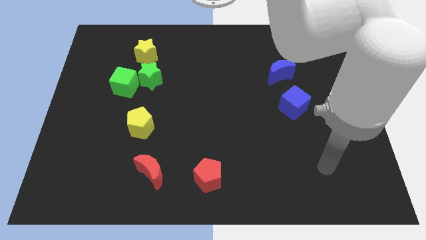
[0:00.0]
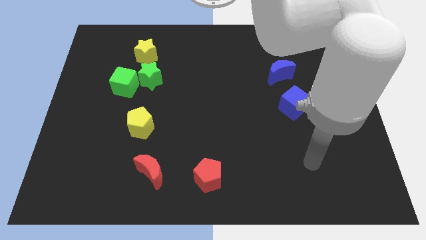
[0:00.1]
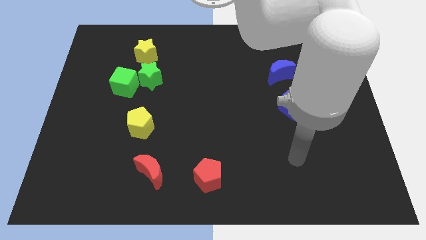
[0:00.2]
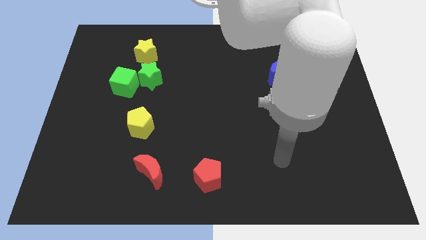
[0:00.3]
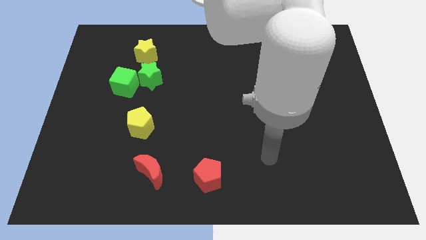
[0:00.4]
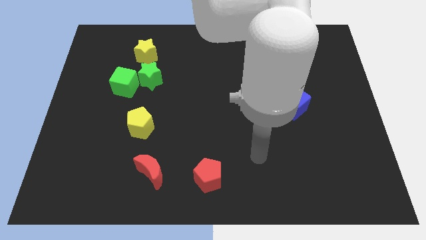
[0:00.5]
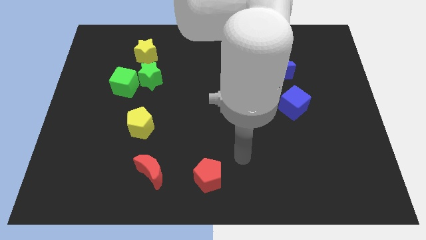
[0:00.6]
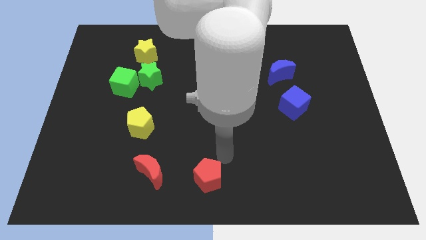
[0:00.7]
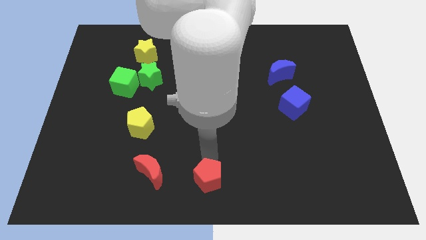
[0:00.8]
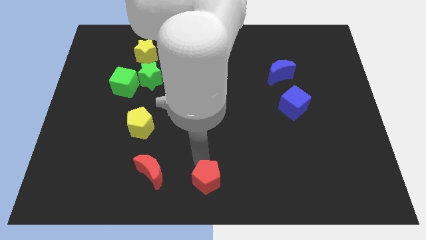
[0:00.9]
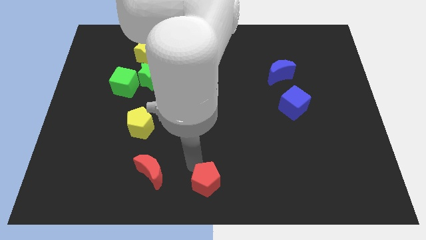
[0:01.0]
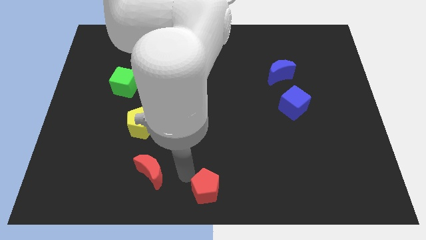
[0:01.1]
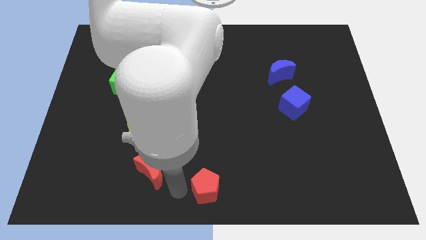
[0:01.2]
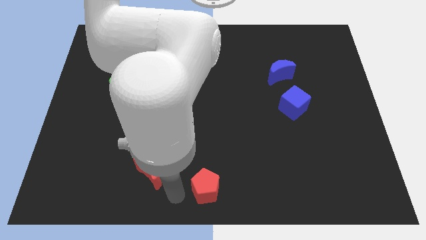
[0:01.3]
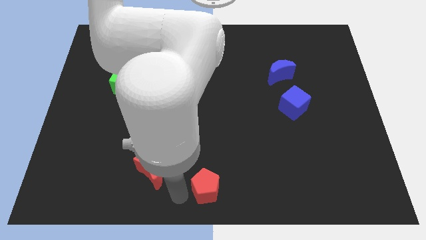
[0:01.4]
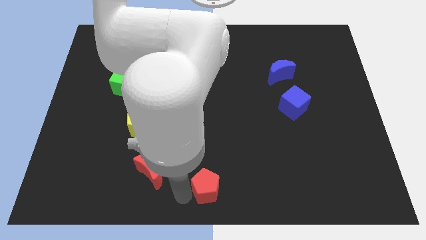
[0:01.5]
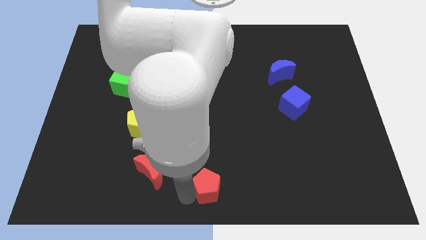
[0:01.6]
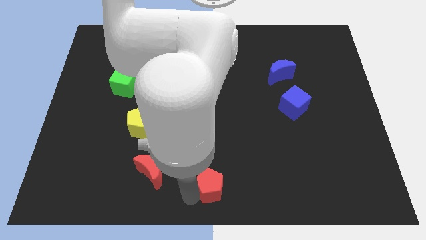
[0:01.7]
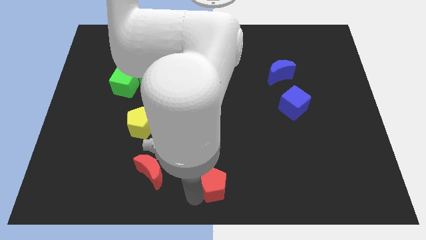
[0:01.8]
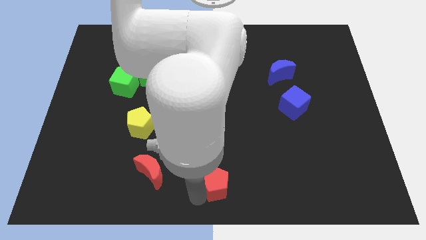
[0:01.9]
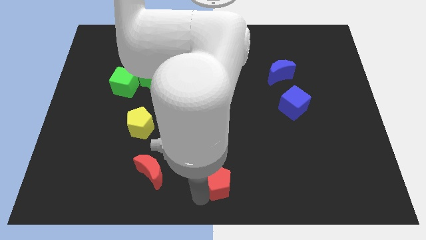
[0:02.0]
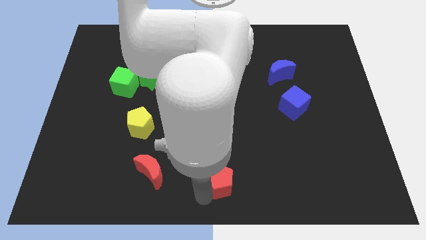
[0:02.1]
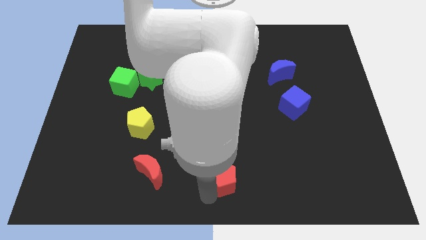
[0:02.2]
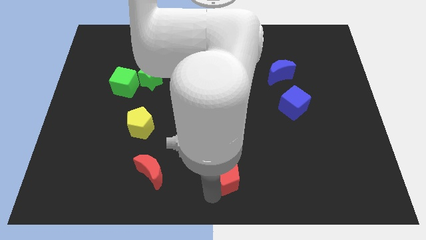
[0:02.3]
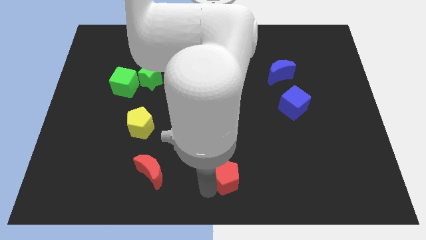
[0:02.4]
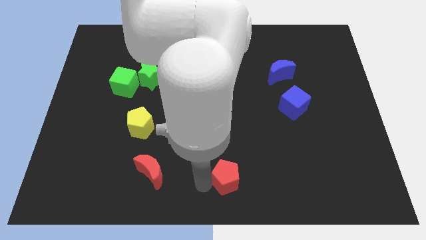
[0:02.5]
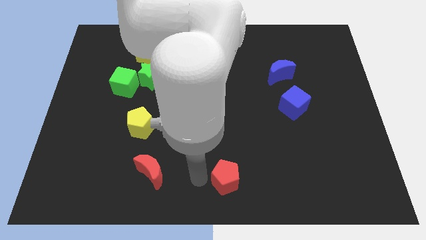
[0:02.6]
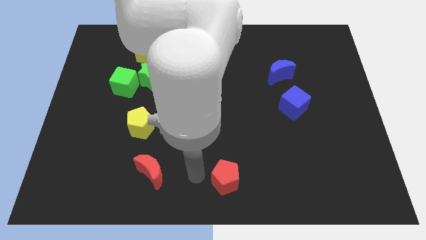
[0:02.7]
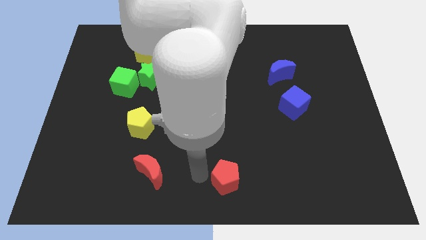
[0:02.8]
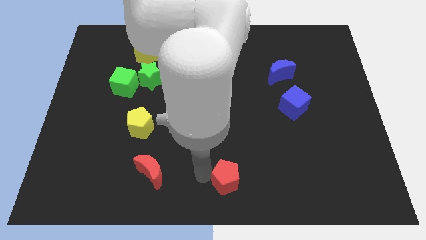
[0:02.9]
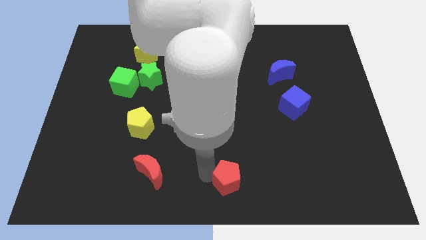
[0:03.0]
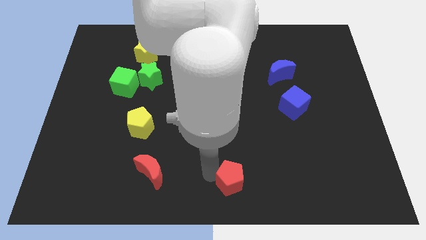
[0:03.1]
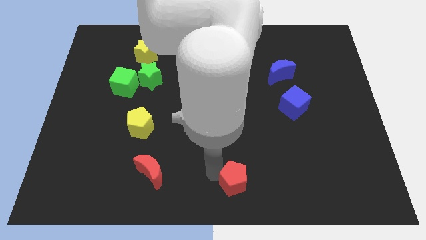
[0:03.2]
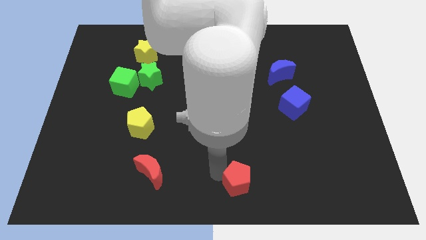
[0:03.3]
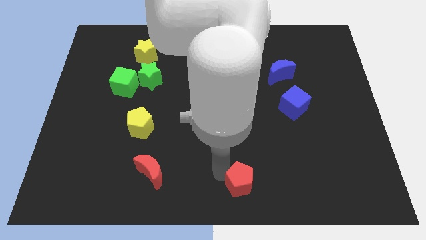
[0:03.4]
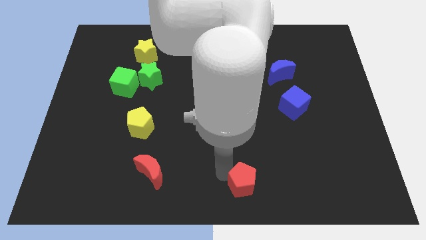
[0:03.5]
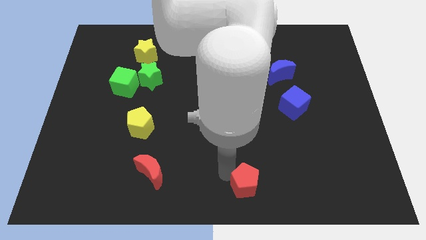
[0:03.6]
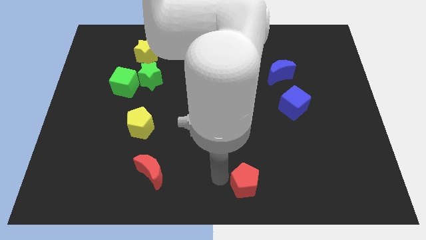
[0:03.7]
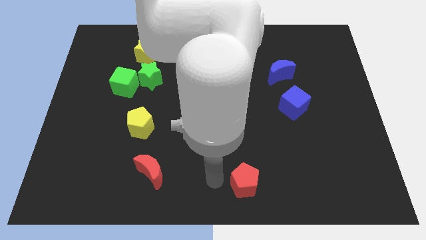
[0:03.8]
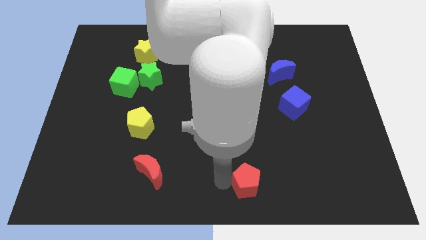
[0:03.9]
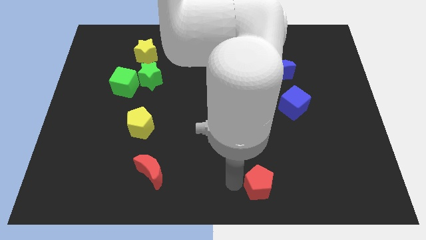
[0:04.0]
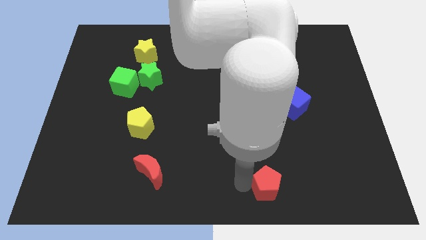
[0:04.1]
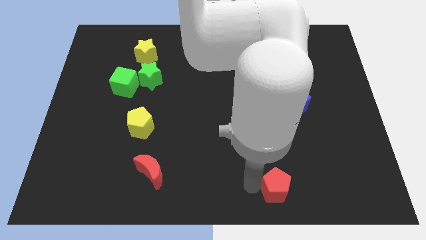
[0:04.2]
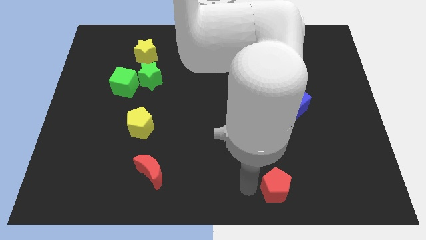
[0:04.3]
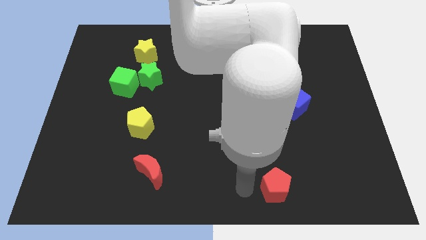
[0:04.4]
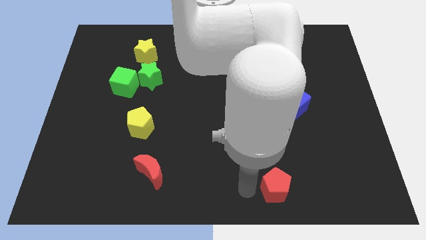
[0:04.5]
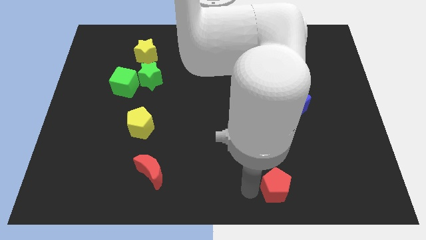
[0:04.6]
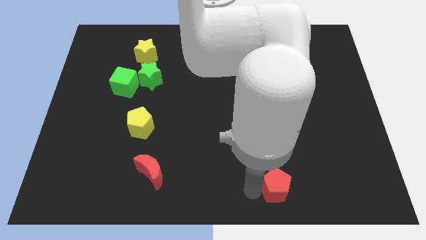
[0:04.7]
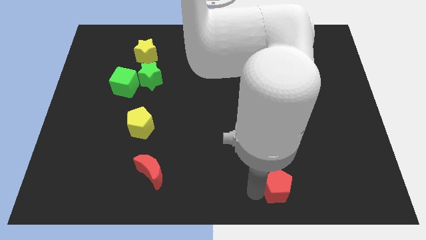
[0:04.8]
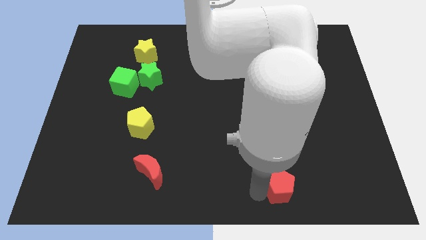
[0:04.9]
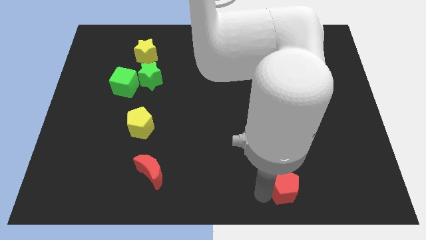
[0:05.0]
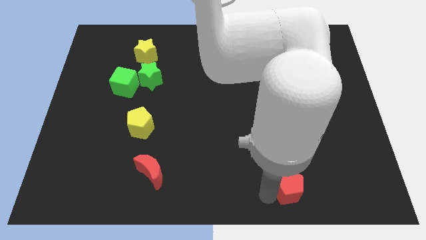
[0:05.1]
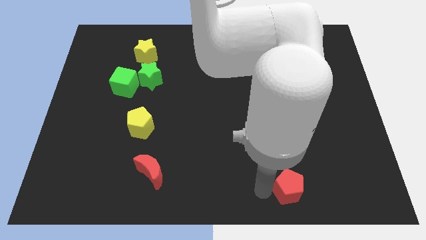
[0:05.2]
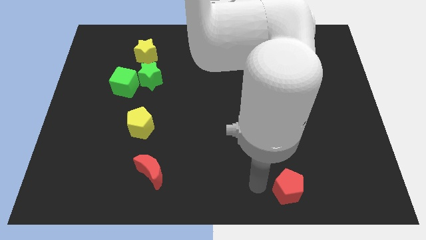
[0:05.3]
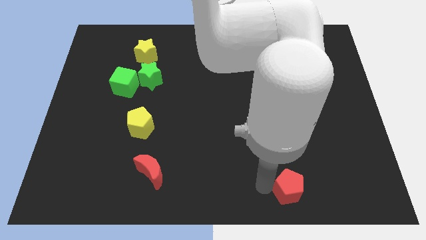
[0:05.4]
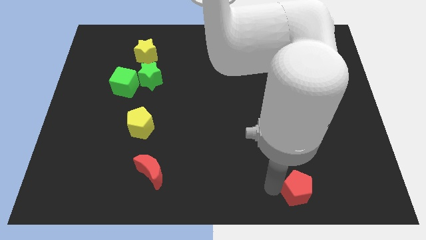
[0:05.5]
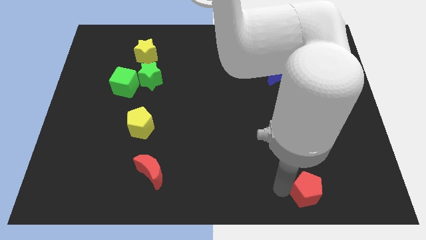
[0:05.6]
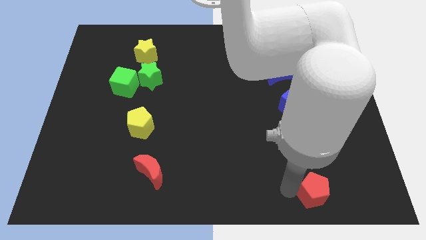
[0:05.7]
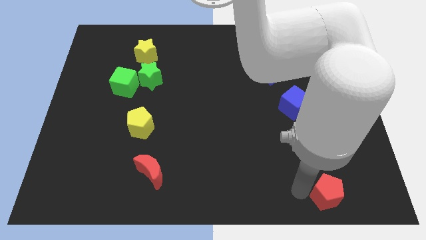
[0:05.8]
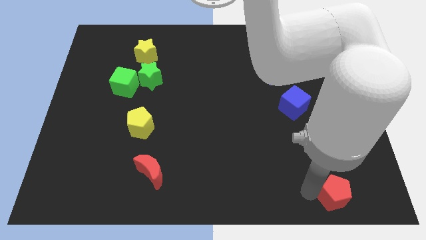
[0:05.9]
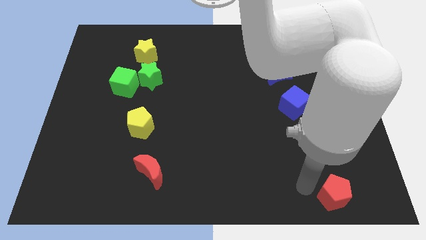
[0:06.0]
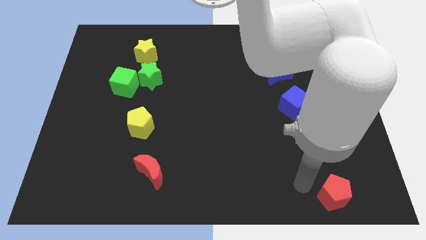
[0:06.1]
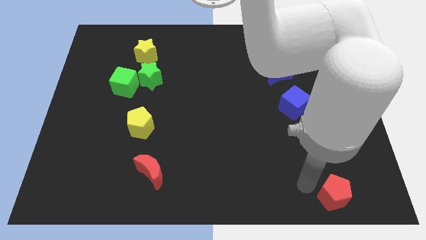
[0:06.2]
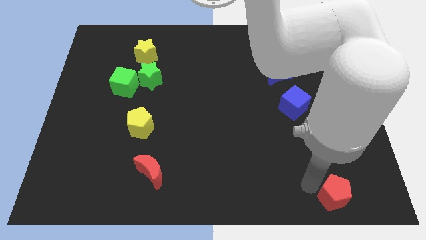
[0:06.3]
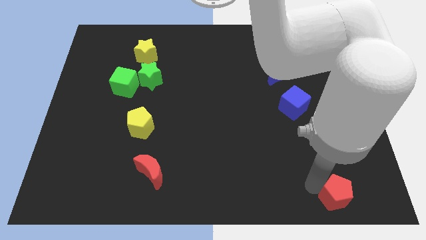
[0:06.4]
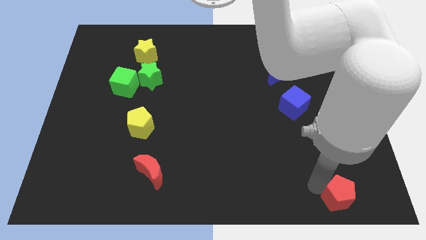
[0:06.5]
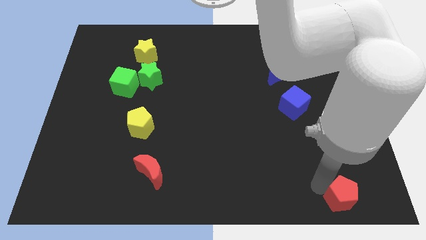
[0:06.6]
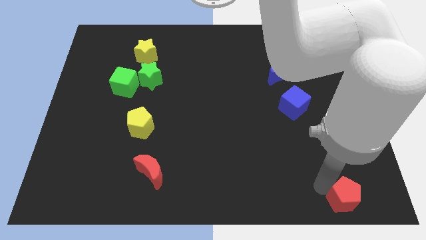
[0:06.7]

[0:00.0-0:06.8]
slide the red pentagon to the bottom right of the board

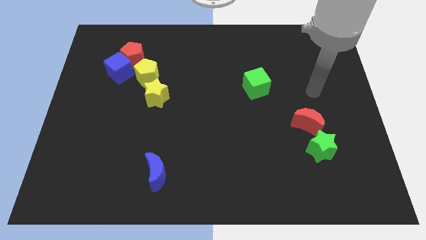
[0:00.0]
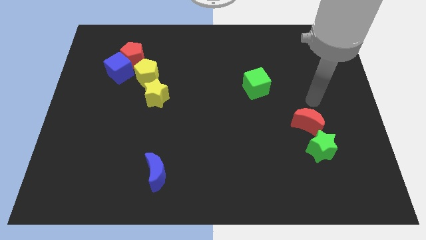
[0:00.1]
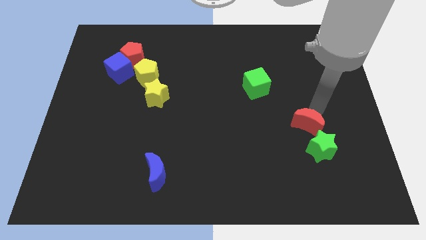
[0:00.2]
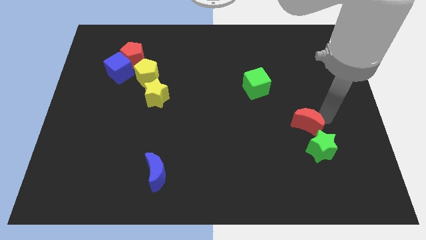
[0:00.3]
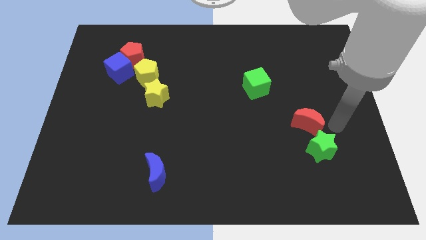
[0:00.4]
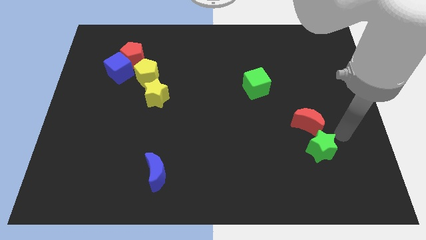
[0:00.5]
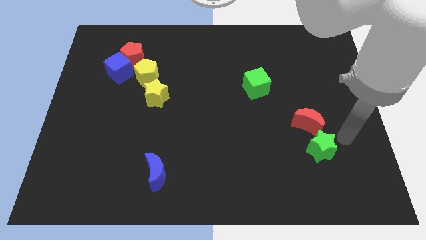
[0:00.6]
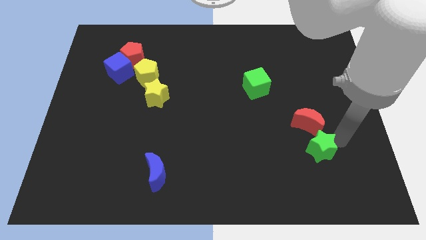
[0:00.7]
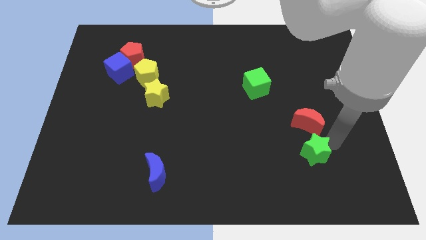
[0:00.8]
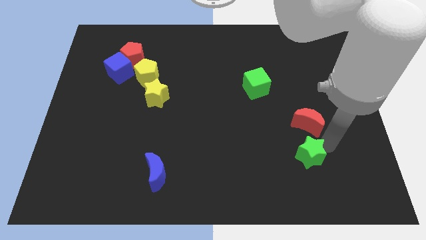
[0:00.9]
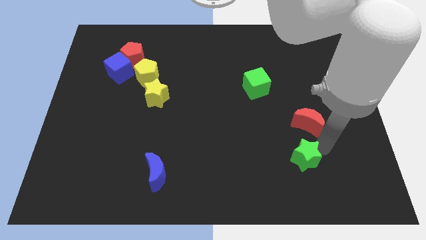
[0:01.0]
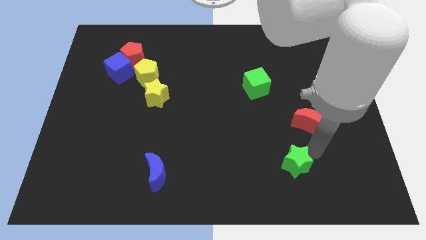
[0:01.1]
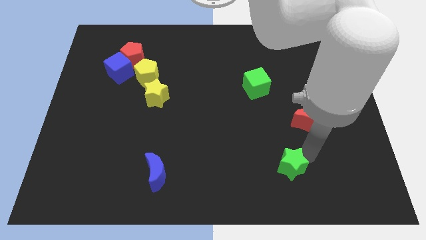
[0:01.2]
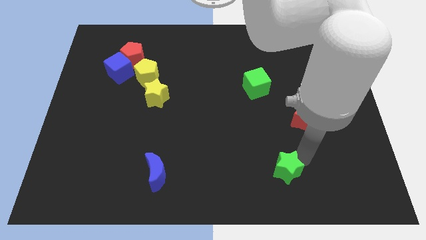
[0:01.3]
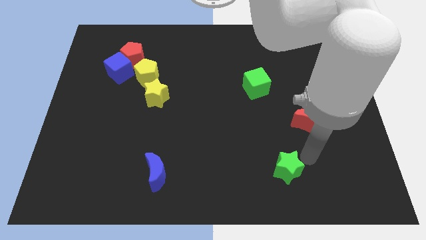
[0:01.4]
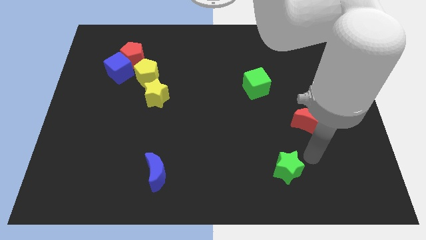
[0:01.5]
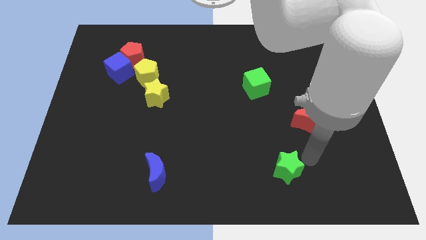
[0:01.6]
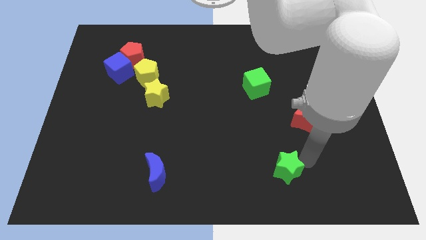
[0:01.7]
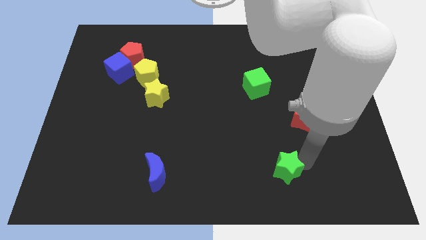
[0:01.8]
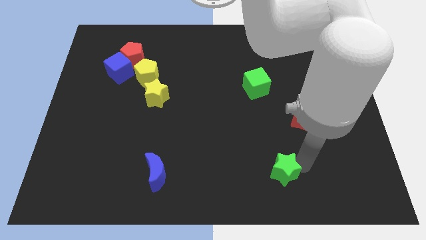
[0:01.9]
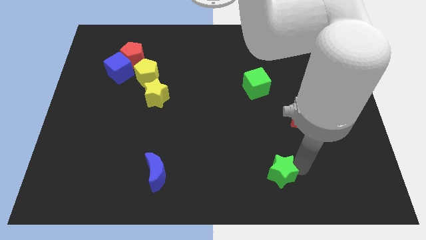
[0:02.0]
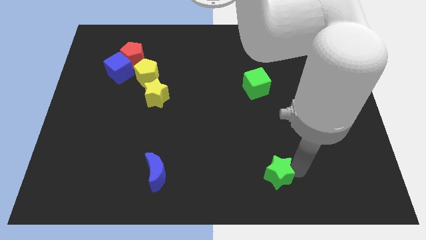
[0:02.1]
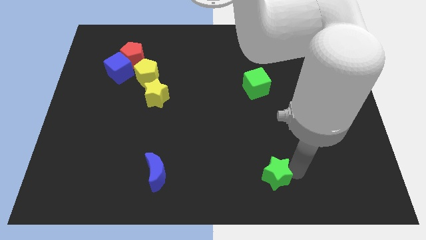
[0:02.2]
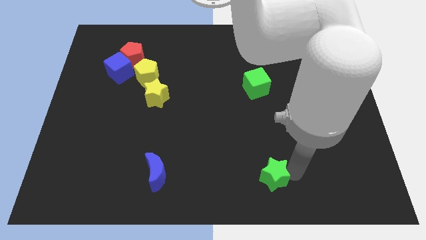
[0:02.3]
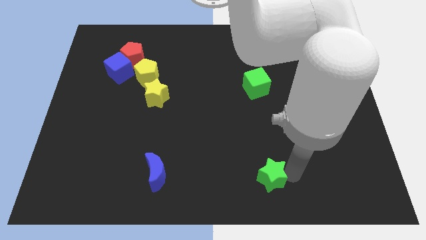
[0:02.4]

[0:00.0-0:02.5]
move the green star to the bottom
